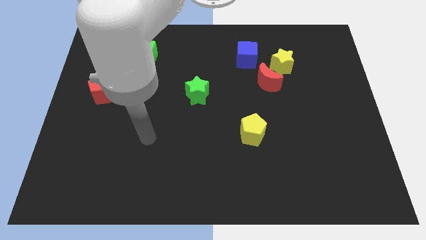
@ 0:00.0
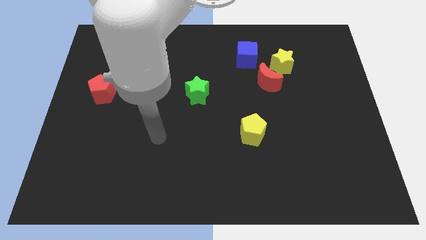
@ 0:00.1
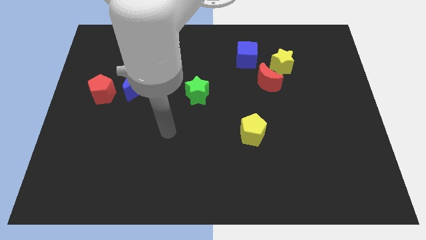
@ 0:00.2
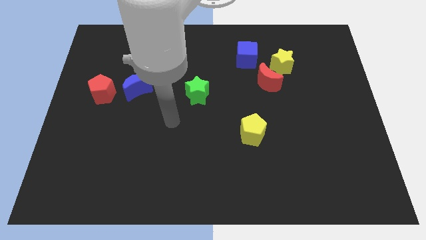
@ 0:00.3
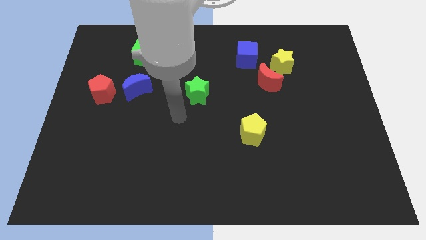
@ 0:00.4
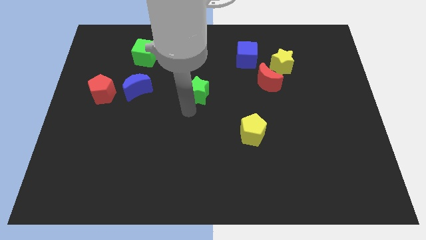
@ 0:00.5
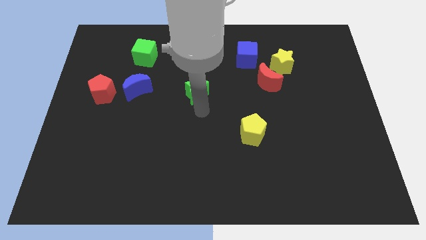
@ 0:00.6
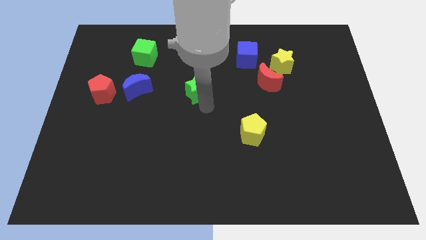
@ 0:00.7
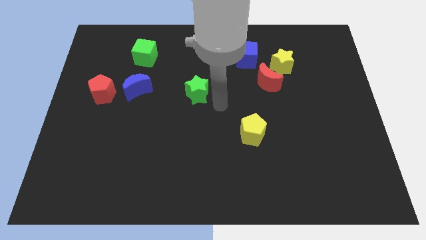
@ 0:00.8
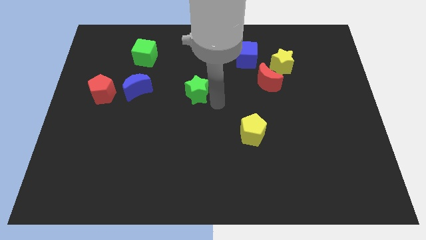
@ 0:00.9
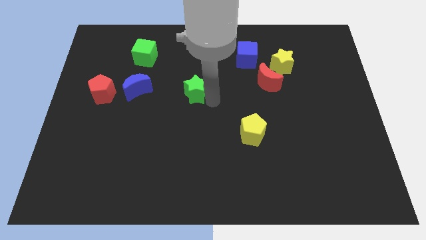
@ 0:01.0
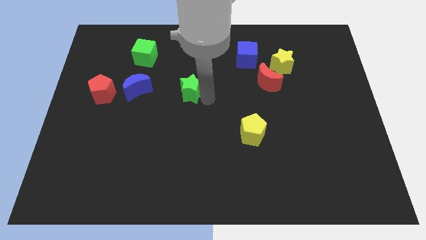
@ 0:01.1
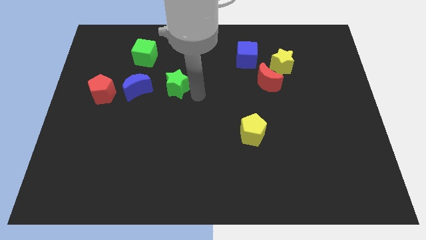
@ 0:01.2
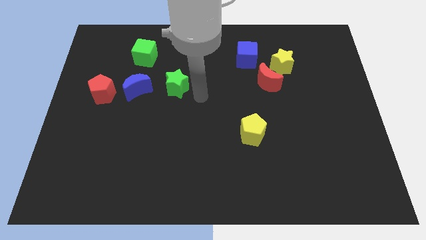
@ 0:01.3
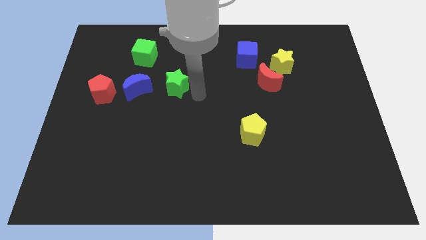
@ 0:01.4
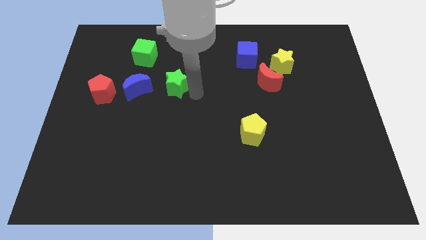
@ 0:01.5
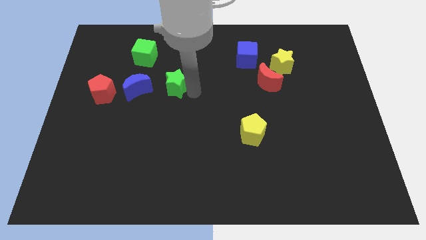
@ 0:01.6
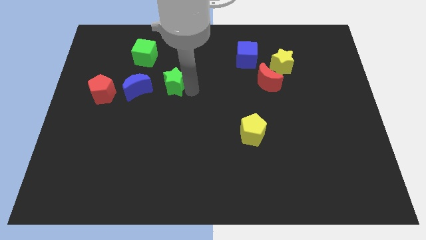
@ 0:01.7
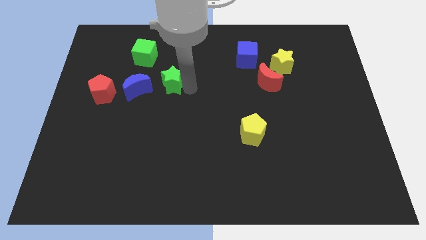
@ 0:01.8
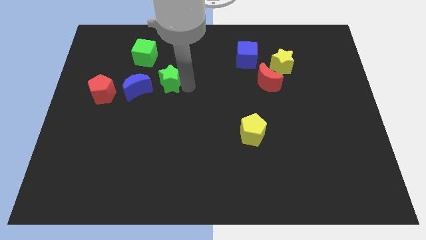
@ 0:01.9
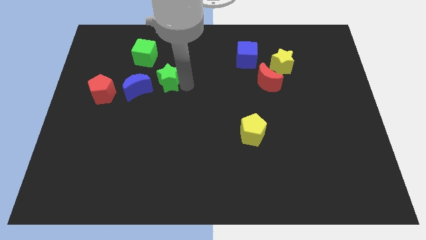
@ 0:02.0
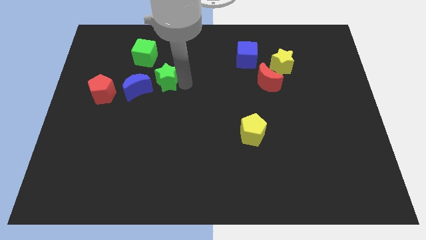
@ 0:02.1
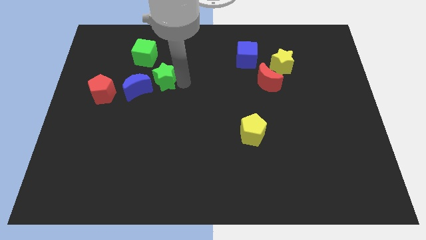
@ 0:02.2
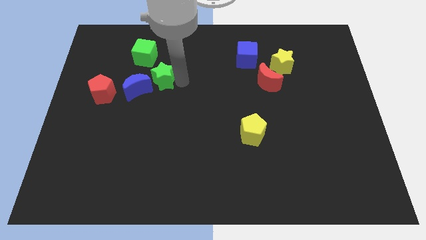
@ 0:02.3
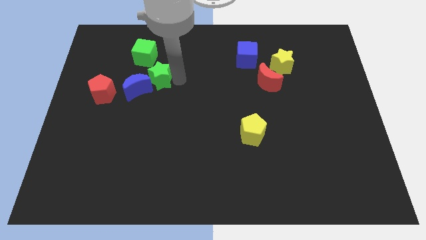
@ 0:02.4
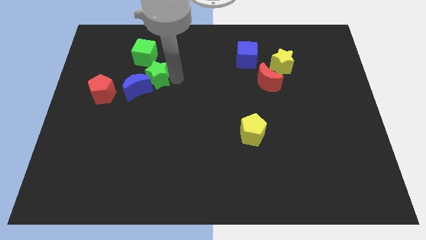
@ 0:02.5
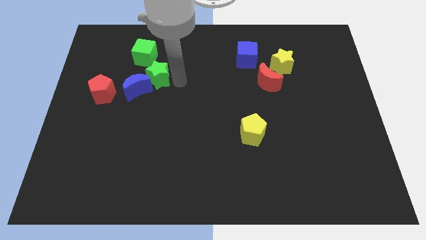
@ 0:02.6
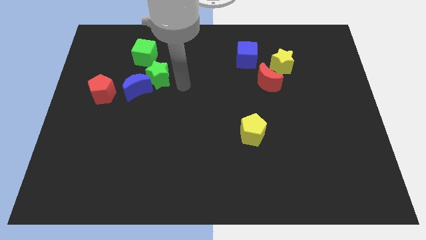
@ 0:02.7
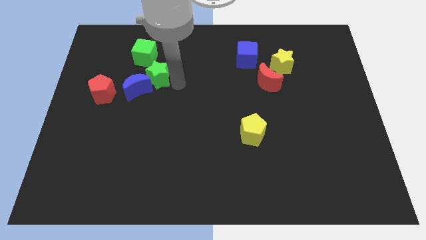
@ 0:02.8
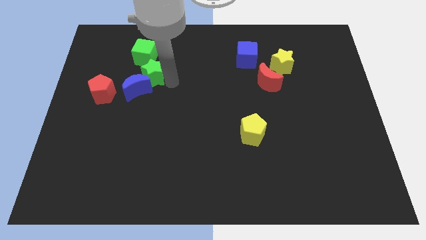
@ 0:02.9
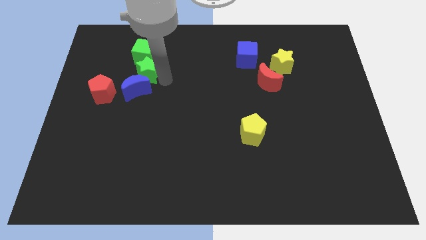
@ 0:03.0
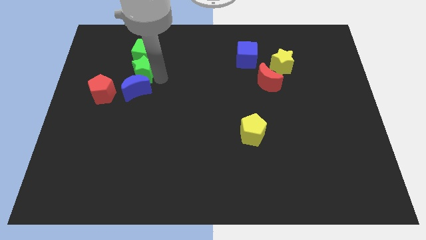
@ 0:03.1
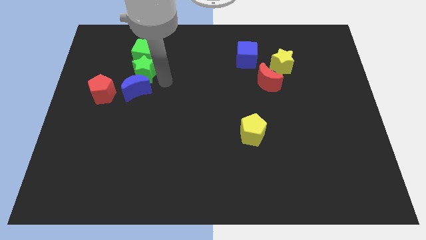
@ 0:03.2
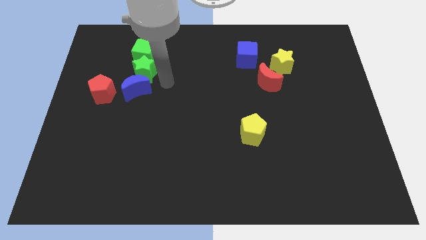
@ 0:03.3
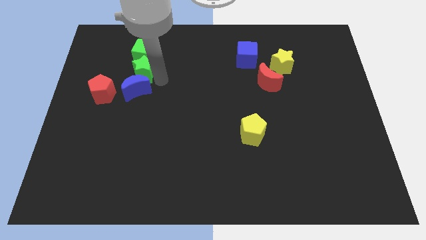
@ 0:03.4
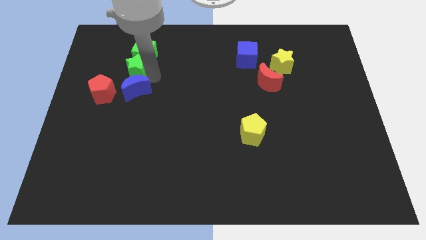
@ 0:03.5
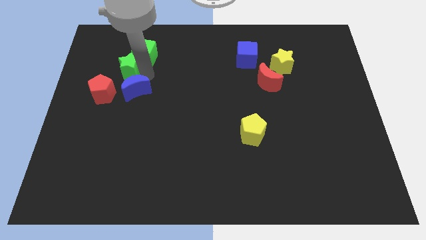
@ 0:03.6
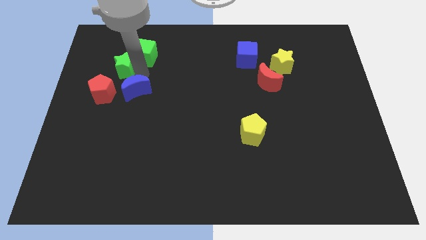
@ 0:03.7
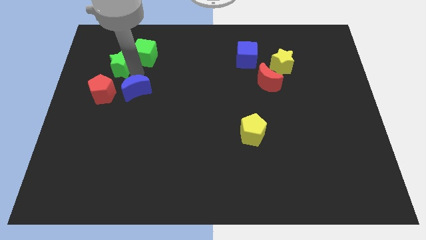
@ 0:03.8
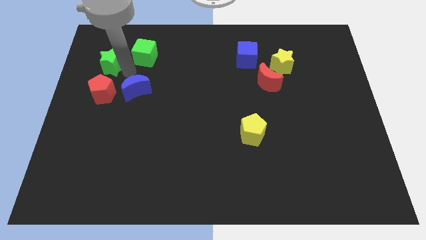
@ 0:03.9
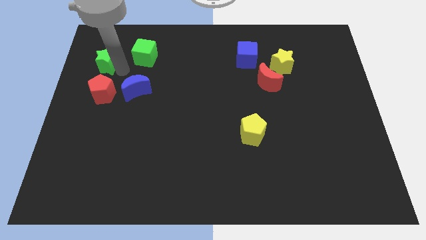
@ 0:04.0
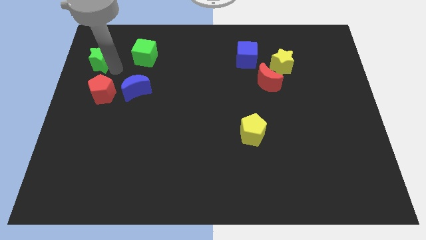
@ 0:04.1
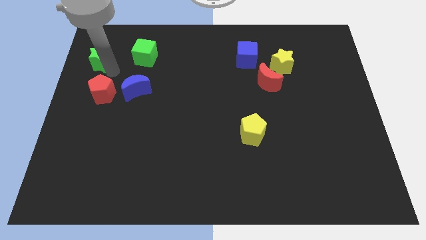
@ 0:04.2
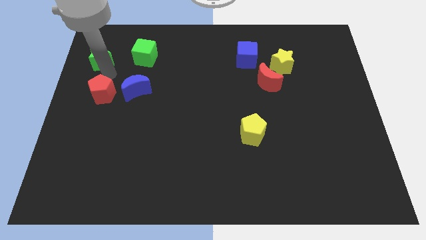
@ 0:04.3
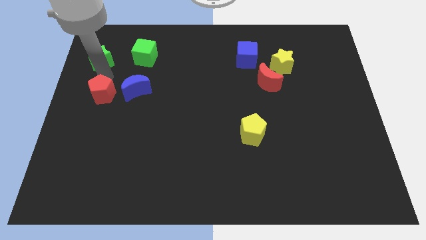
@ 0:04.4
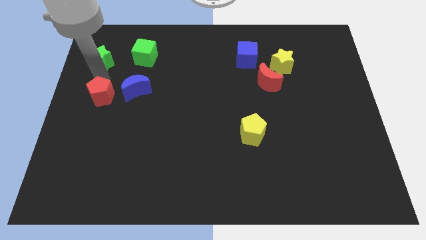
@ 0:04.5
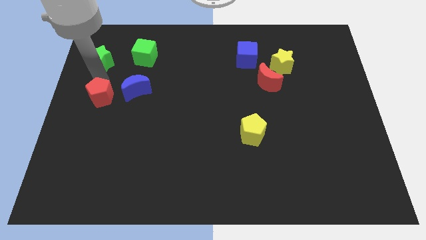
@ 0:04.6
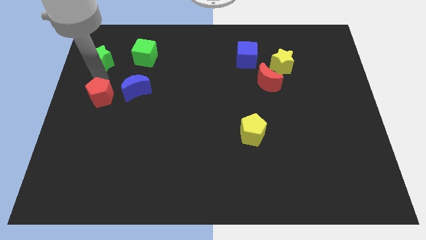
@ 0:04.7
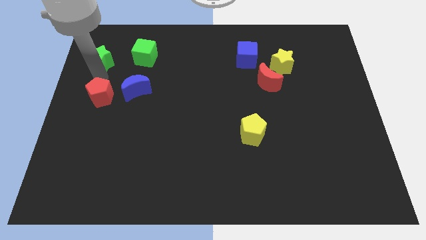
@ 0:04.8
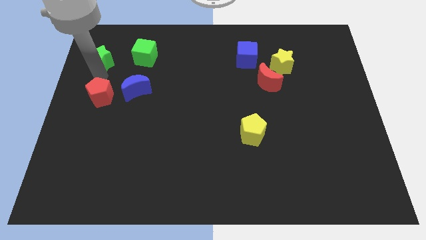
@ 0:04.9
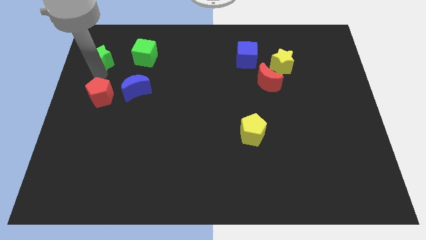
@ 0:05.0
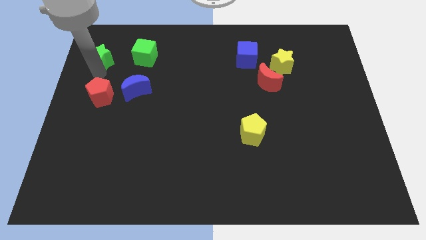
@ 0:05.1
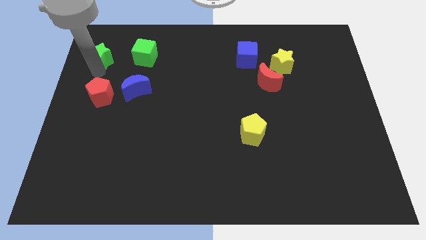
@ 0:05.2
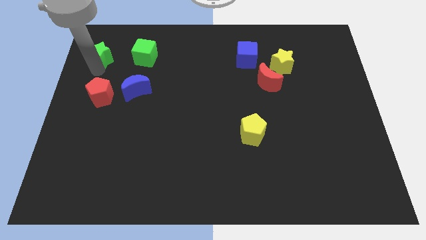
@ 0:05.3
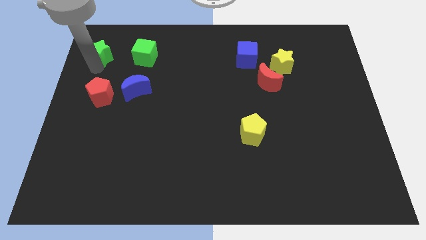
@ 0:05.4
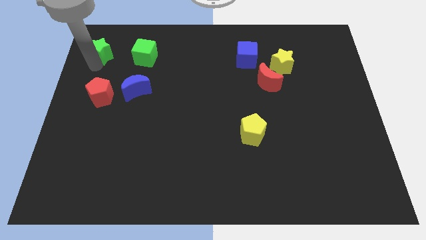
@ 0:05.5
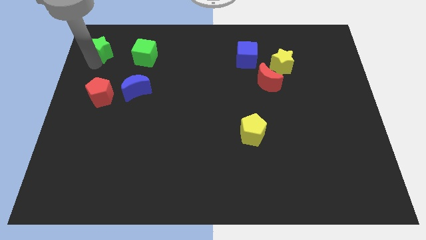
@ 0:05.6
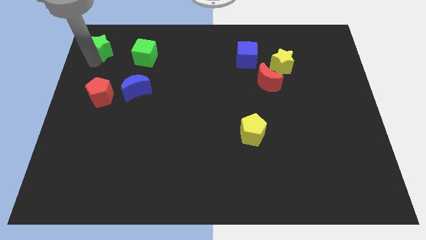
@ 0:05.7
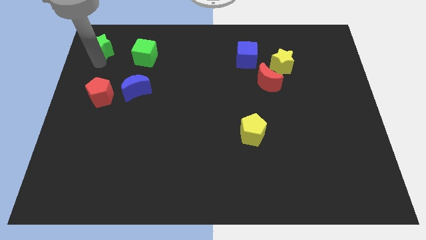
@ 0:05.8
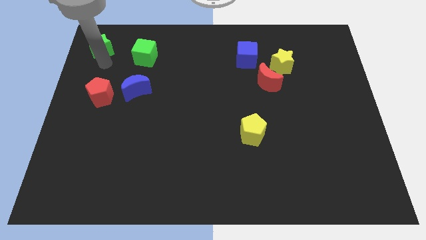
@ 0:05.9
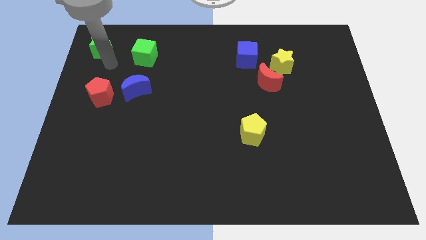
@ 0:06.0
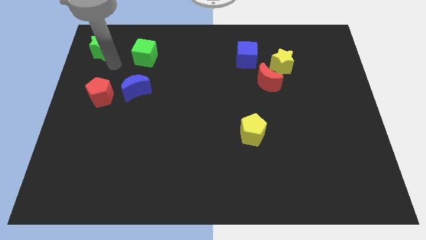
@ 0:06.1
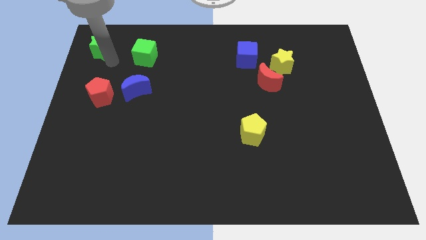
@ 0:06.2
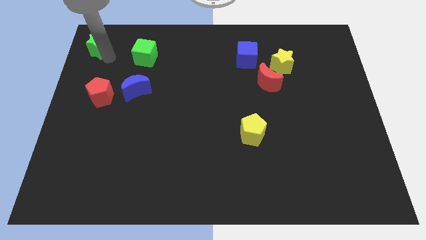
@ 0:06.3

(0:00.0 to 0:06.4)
push the green star to the upper left corner
